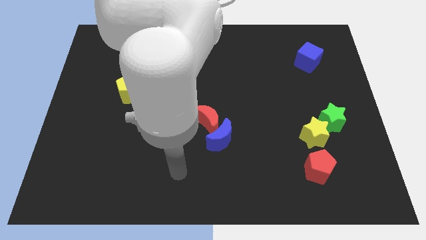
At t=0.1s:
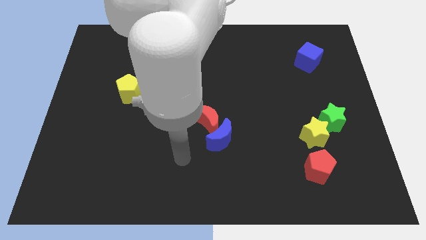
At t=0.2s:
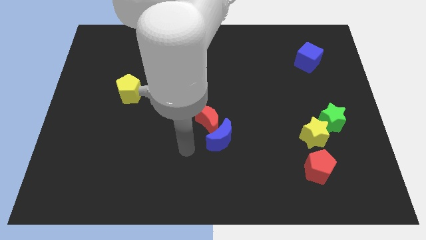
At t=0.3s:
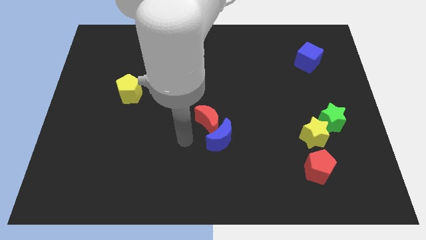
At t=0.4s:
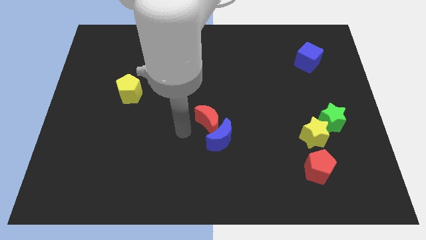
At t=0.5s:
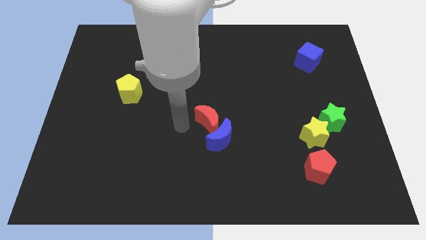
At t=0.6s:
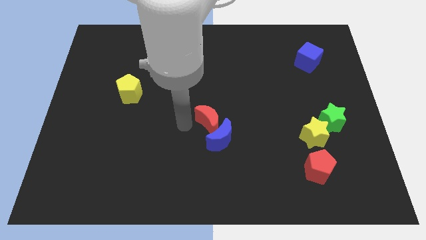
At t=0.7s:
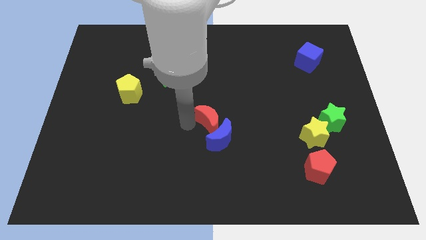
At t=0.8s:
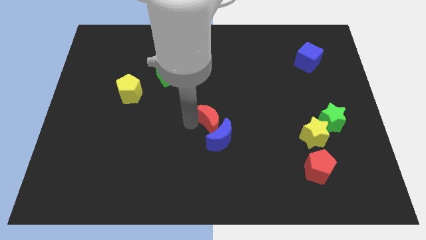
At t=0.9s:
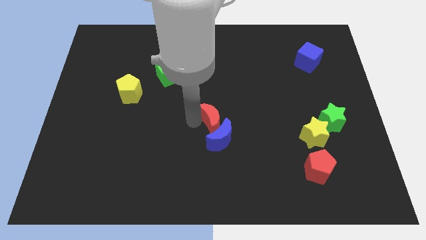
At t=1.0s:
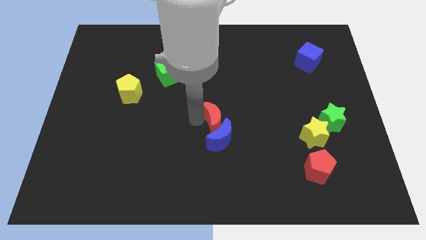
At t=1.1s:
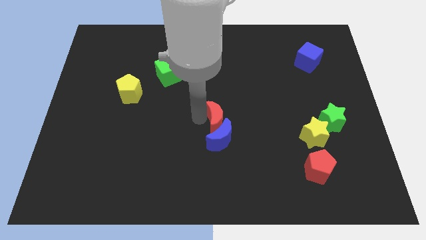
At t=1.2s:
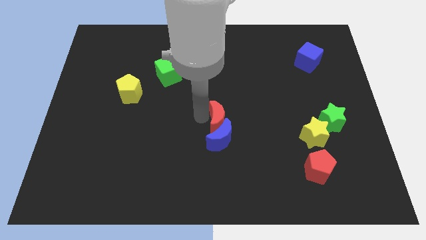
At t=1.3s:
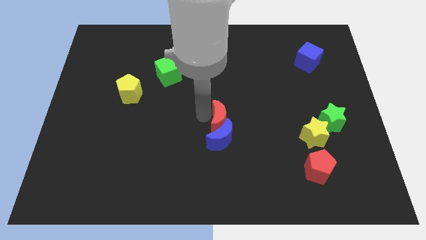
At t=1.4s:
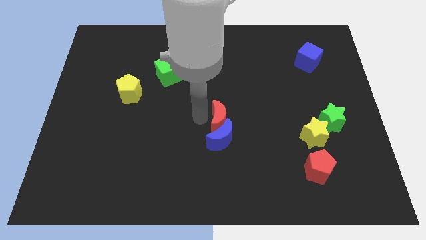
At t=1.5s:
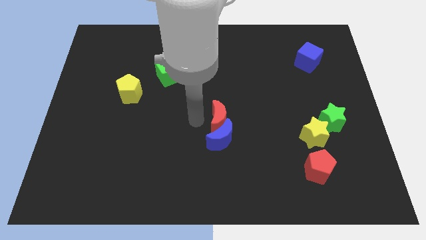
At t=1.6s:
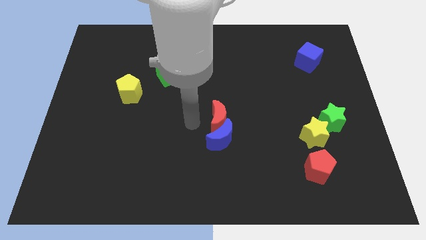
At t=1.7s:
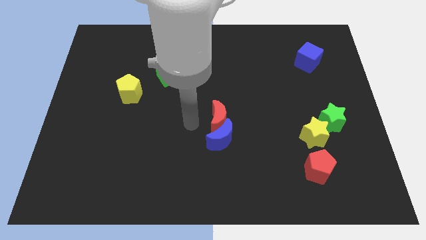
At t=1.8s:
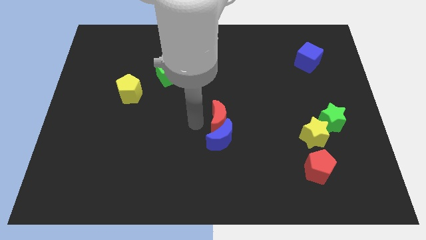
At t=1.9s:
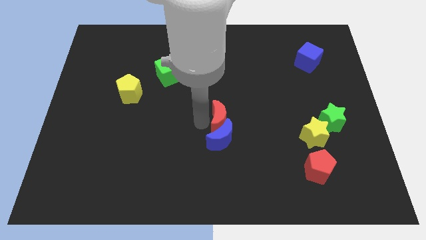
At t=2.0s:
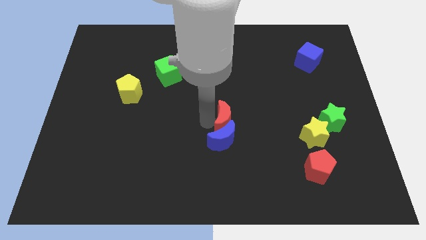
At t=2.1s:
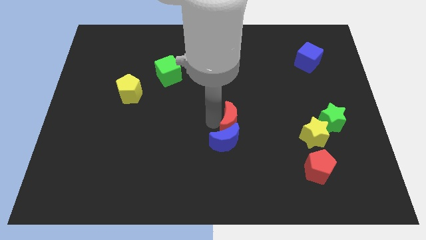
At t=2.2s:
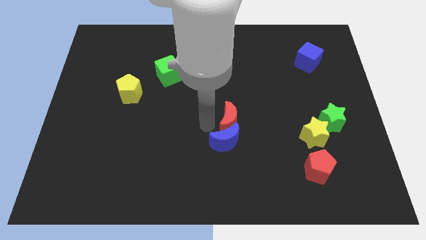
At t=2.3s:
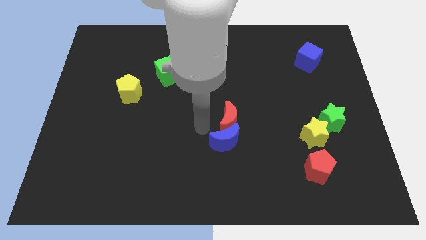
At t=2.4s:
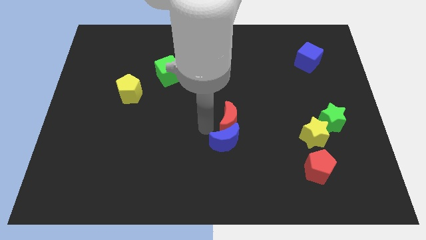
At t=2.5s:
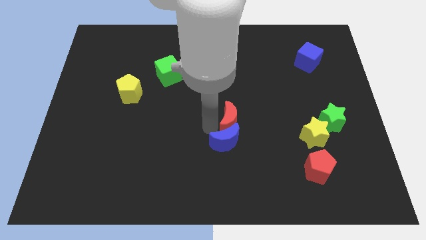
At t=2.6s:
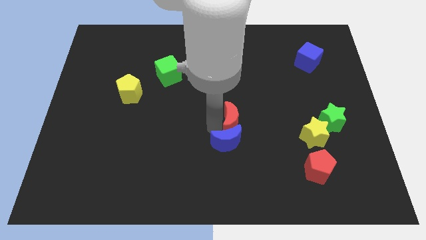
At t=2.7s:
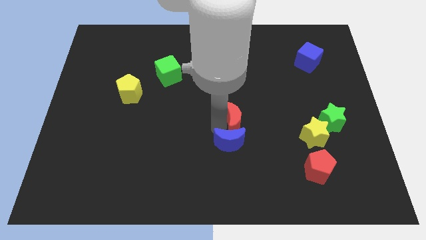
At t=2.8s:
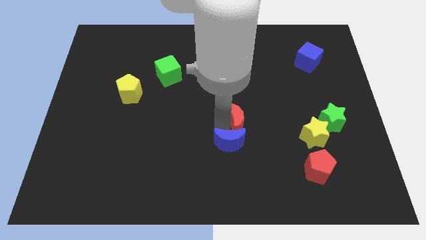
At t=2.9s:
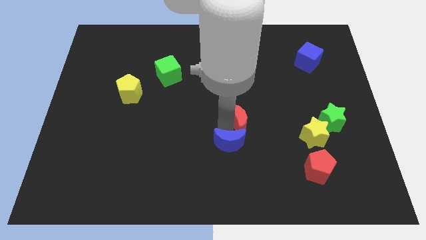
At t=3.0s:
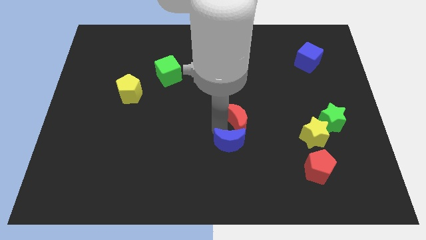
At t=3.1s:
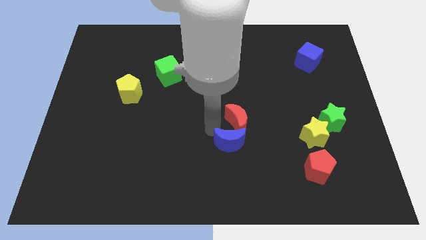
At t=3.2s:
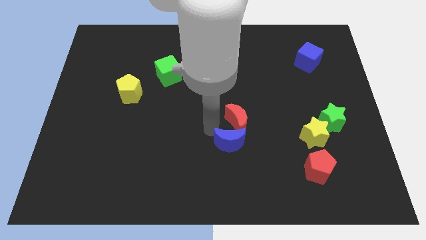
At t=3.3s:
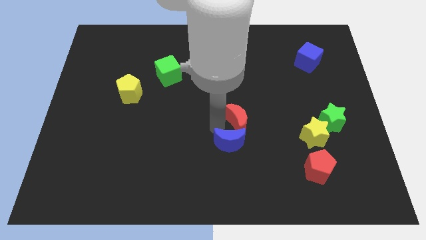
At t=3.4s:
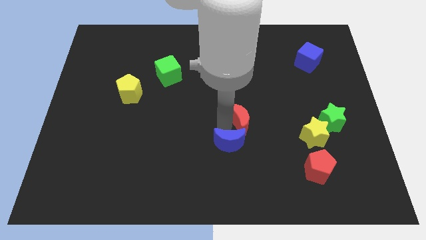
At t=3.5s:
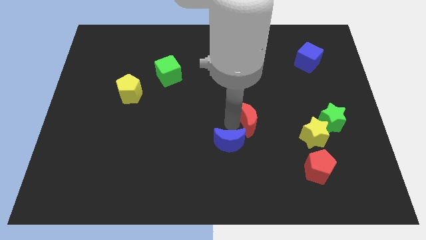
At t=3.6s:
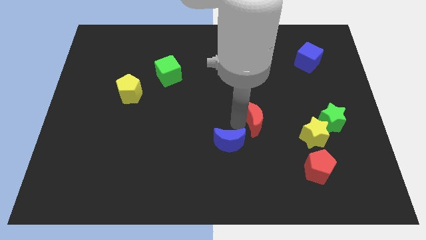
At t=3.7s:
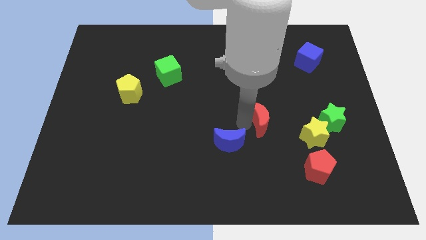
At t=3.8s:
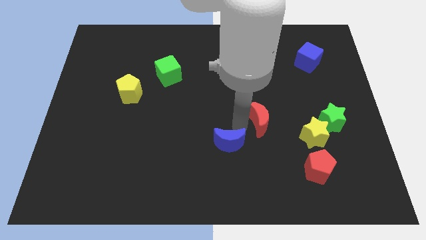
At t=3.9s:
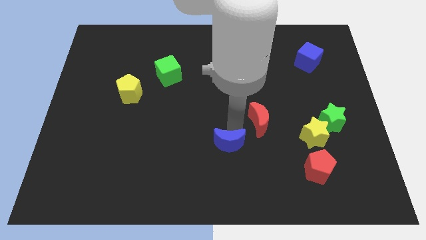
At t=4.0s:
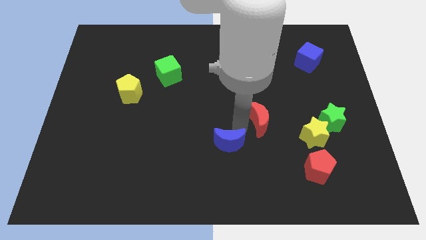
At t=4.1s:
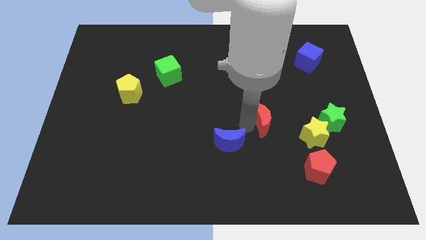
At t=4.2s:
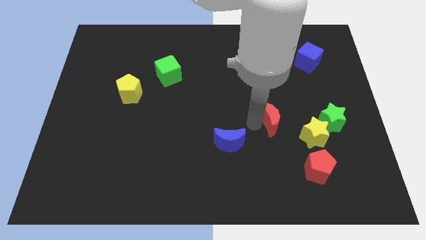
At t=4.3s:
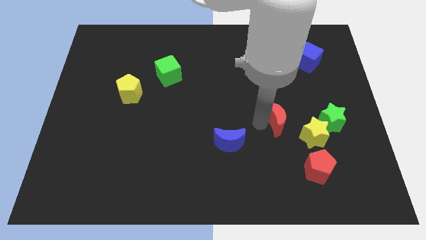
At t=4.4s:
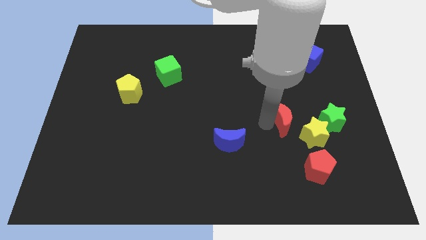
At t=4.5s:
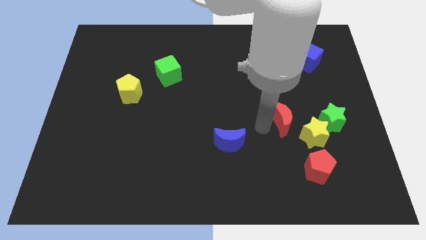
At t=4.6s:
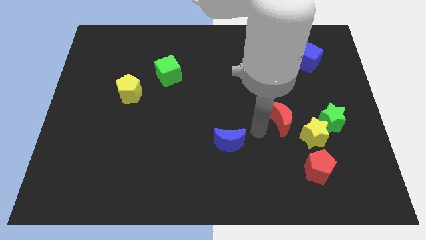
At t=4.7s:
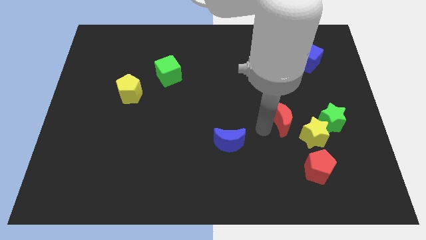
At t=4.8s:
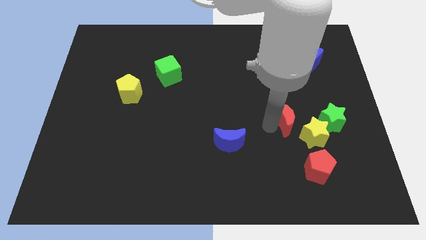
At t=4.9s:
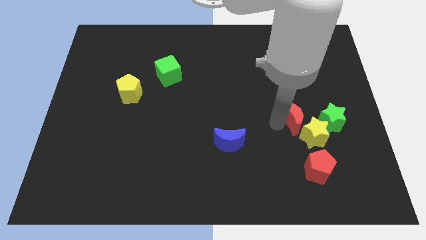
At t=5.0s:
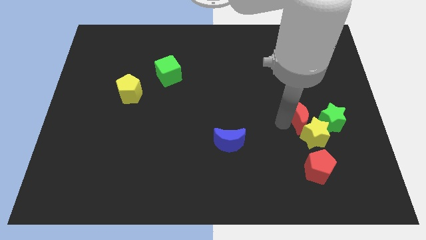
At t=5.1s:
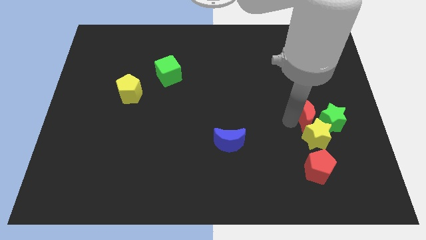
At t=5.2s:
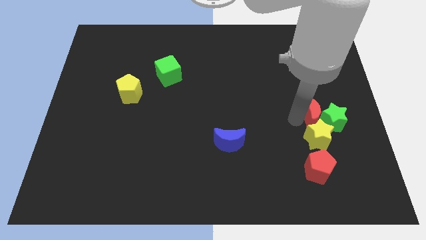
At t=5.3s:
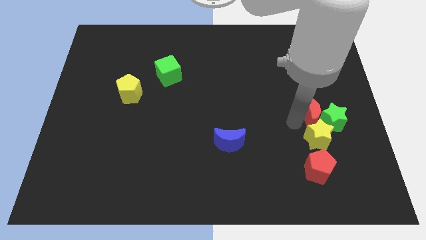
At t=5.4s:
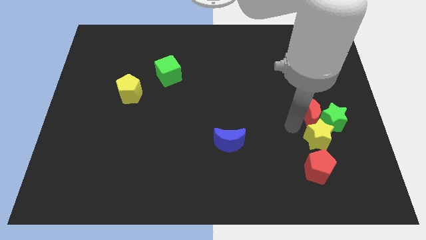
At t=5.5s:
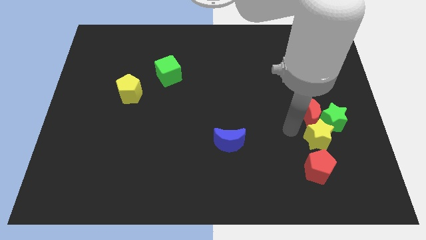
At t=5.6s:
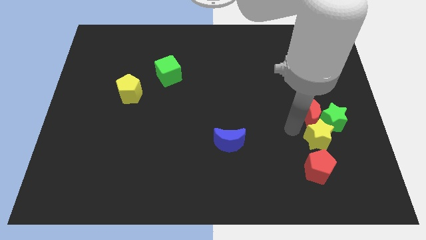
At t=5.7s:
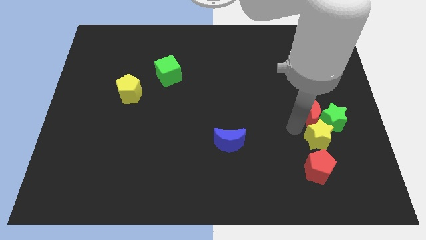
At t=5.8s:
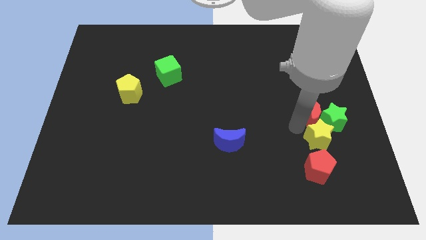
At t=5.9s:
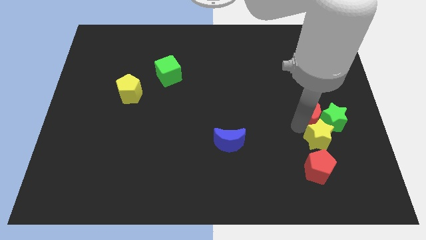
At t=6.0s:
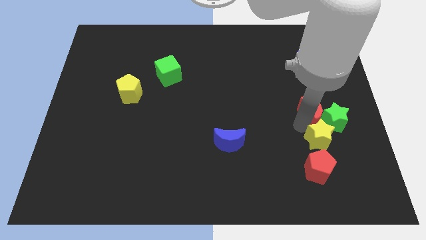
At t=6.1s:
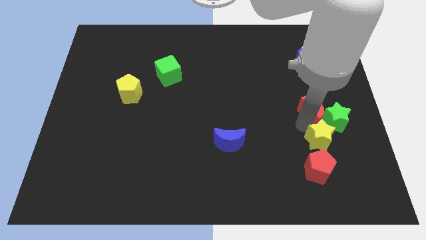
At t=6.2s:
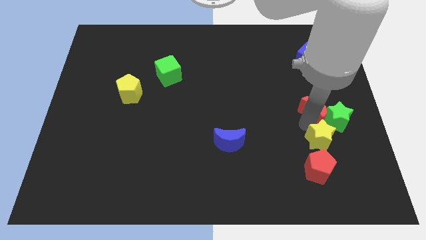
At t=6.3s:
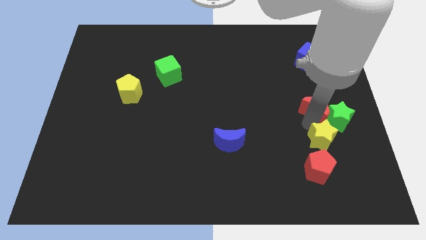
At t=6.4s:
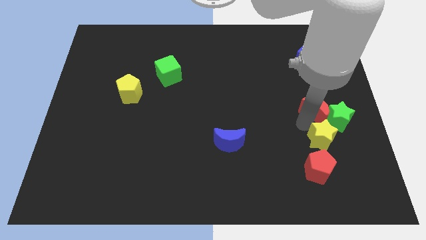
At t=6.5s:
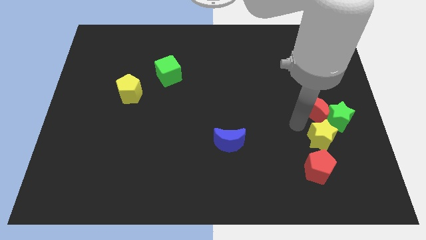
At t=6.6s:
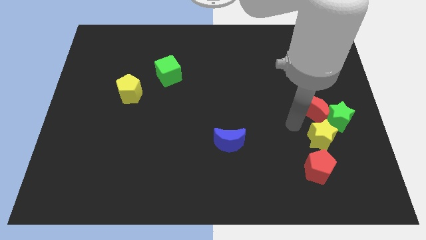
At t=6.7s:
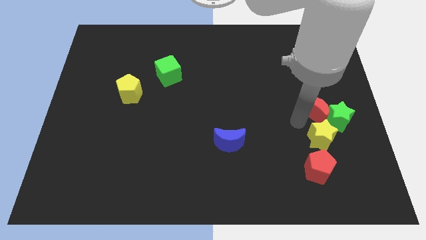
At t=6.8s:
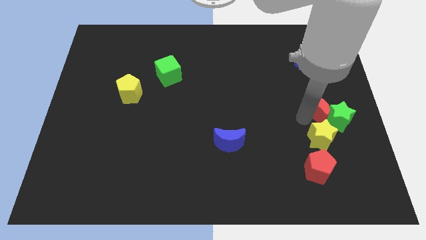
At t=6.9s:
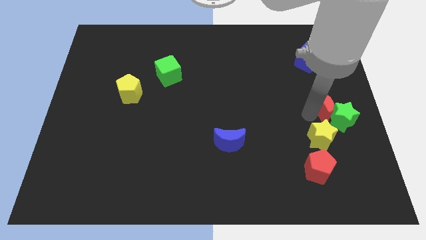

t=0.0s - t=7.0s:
put the red moon to the center right
